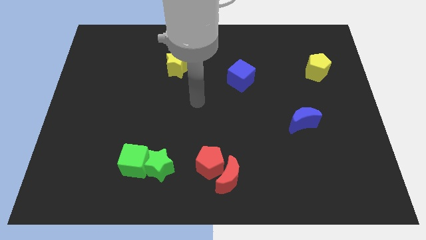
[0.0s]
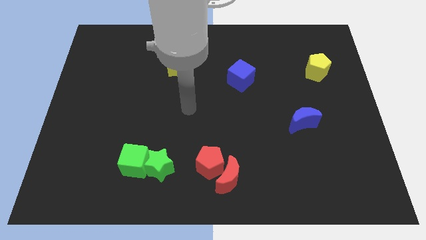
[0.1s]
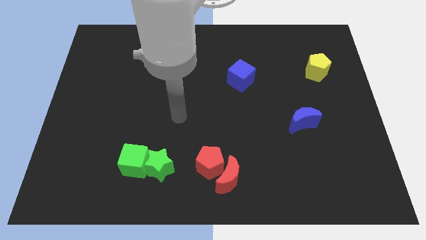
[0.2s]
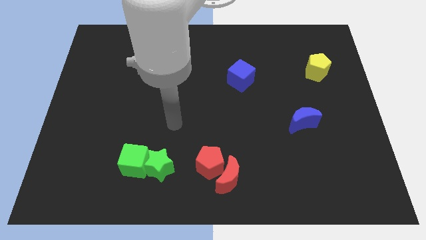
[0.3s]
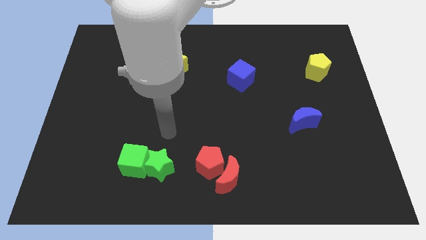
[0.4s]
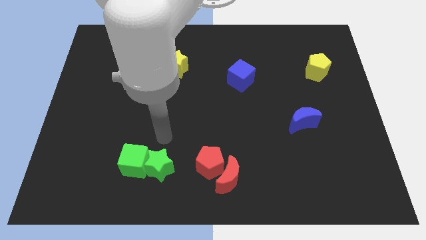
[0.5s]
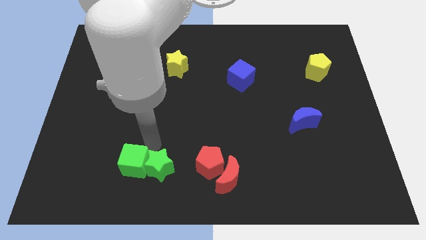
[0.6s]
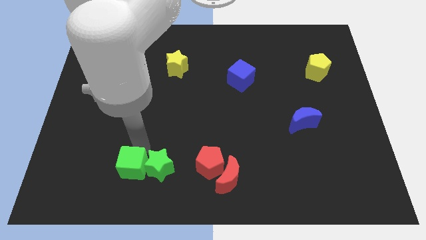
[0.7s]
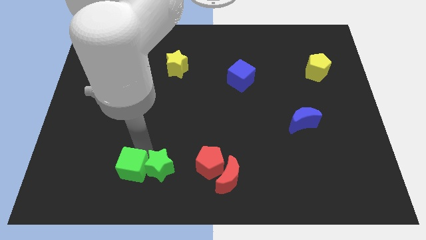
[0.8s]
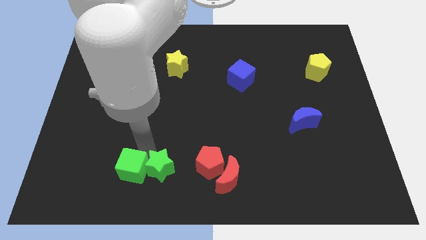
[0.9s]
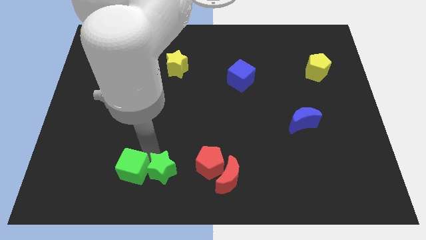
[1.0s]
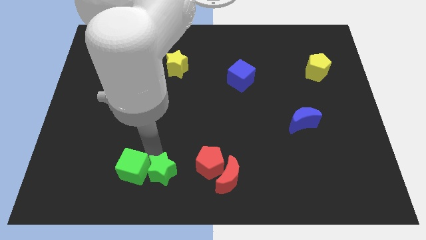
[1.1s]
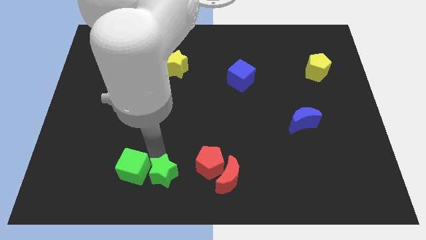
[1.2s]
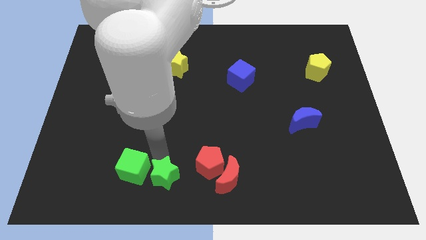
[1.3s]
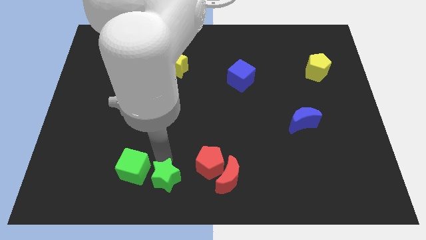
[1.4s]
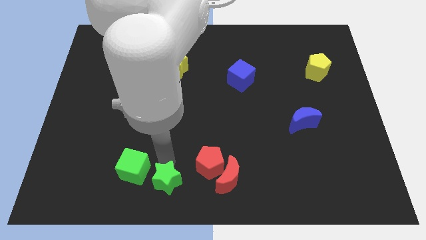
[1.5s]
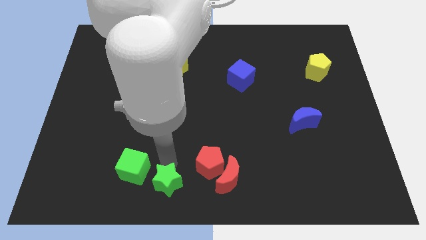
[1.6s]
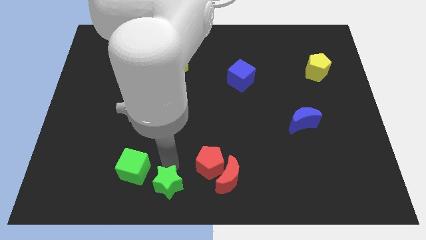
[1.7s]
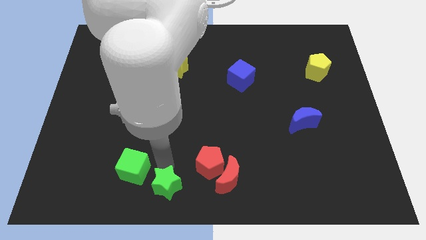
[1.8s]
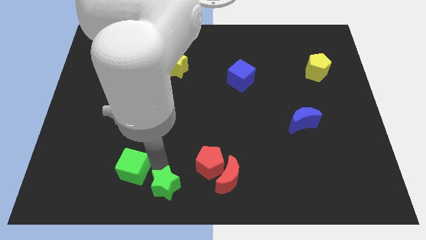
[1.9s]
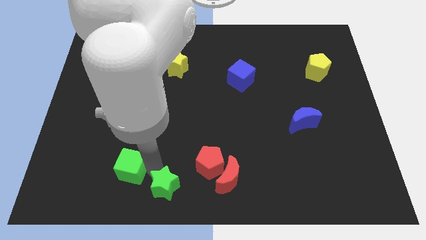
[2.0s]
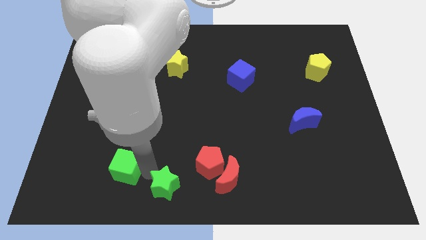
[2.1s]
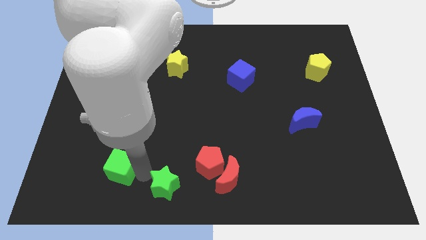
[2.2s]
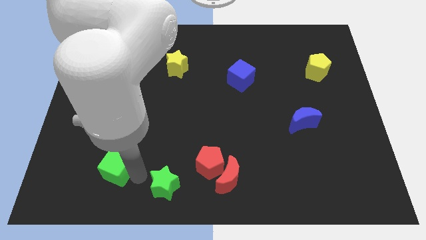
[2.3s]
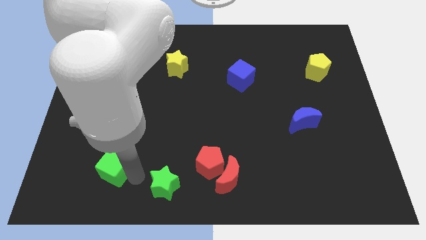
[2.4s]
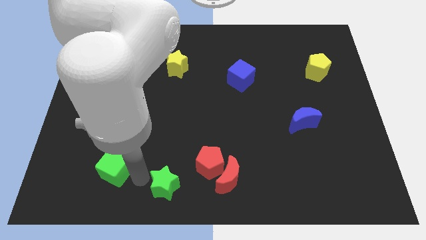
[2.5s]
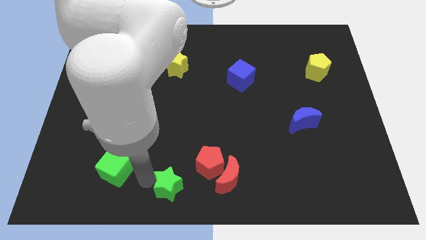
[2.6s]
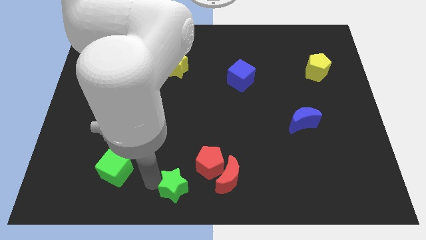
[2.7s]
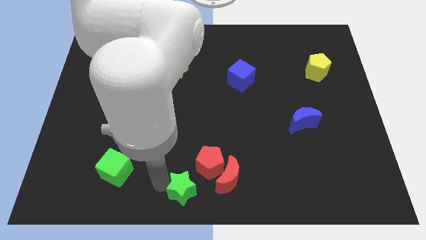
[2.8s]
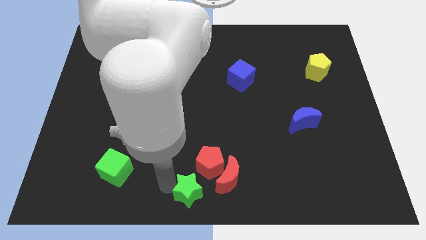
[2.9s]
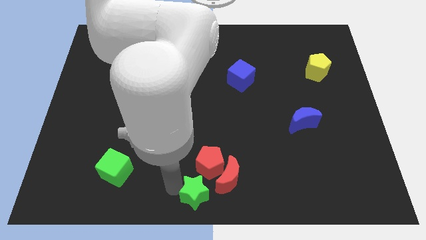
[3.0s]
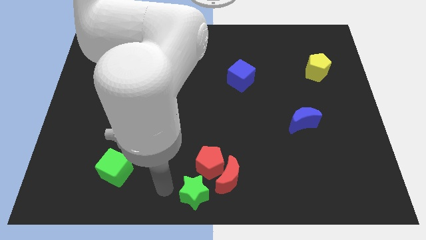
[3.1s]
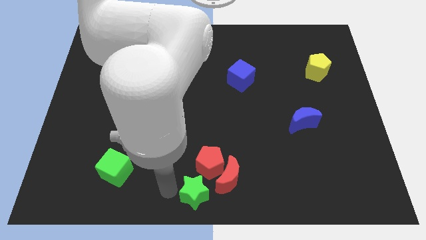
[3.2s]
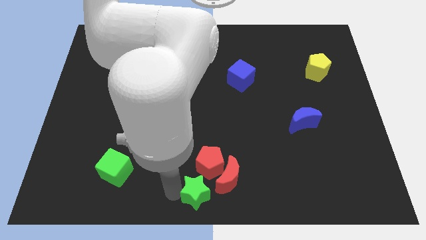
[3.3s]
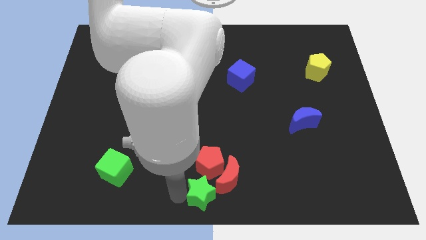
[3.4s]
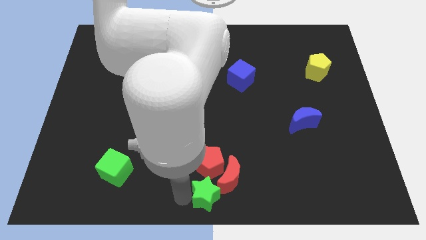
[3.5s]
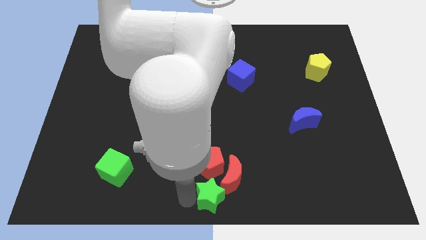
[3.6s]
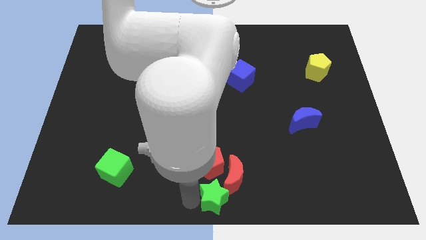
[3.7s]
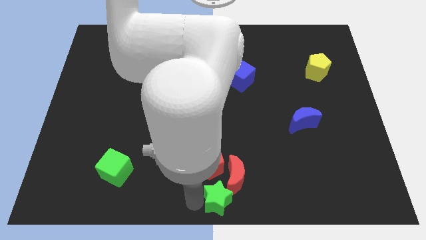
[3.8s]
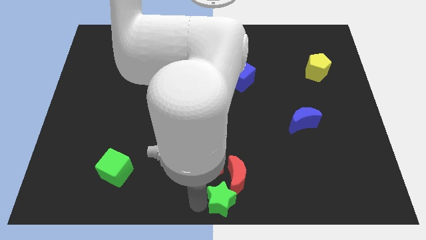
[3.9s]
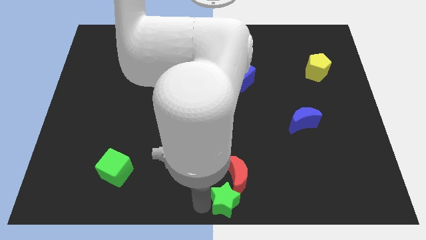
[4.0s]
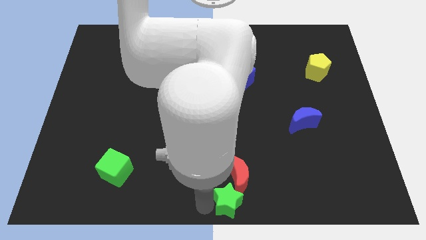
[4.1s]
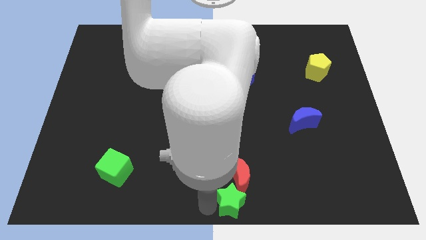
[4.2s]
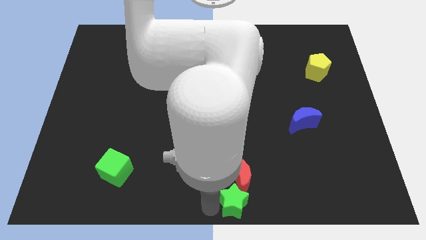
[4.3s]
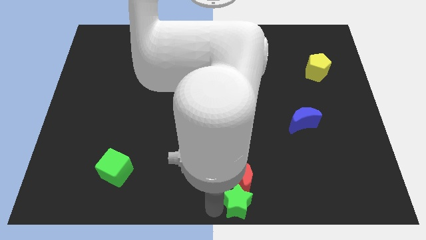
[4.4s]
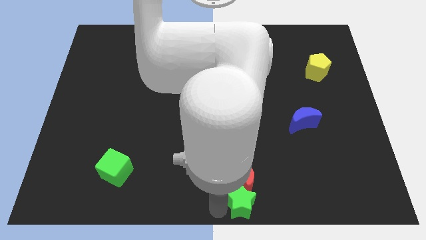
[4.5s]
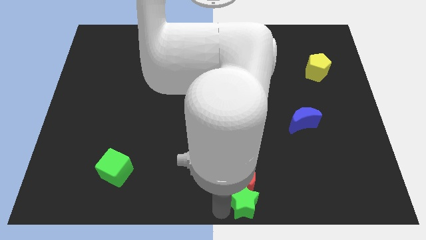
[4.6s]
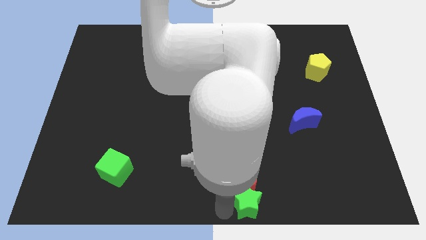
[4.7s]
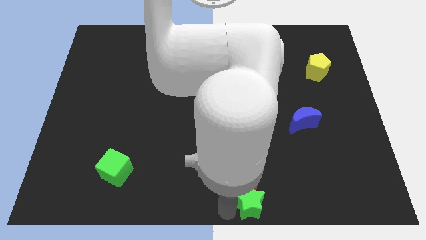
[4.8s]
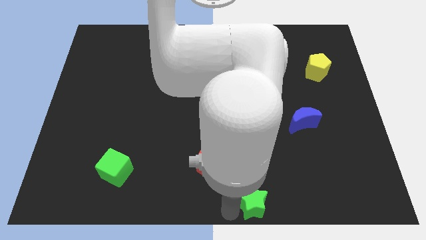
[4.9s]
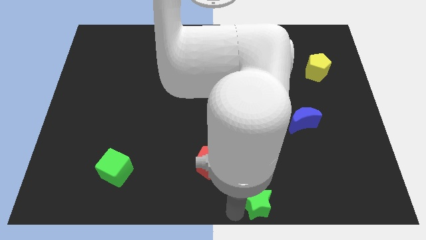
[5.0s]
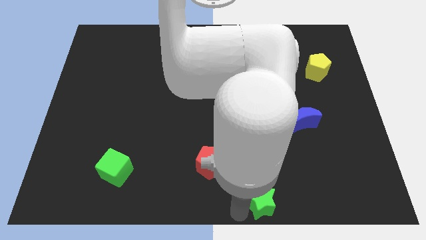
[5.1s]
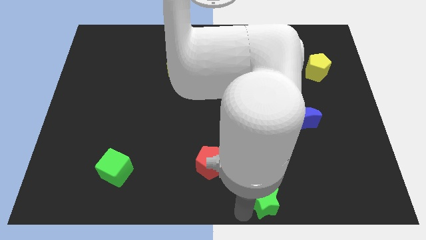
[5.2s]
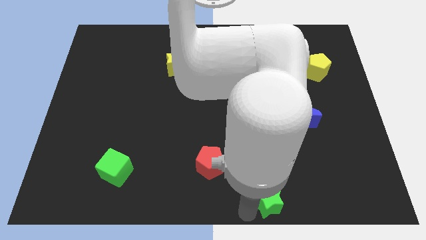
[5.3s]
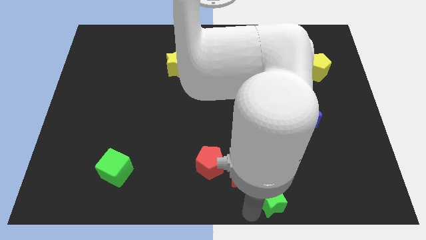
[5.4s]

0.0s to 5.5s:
slide the green star to the right

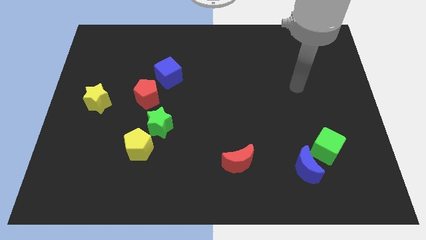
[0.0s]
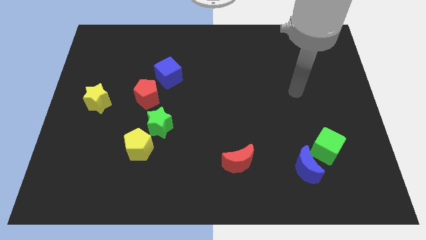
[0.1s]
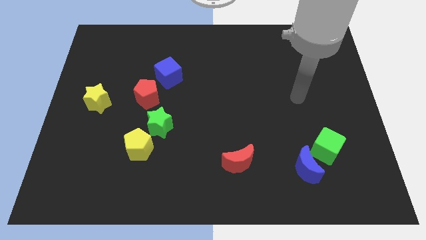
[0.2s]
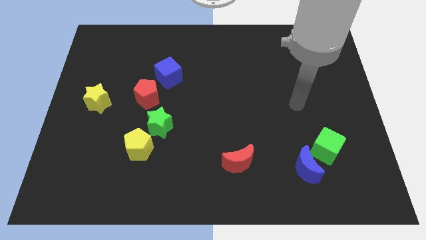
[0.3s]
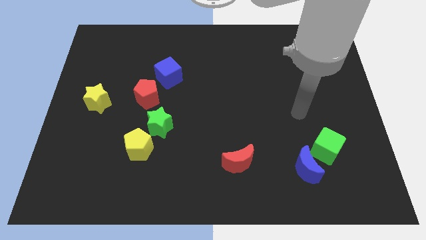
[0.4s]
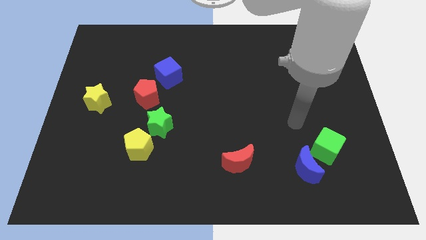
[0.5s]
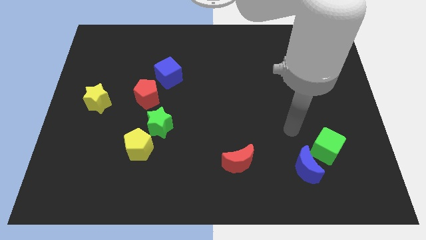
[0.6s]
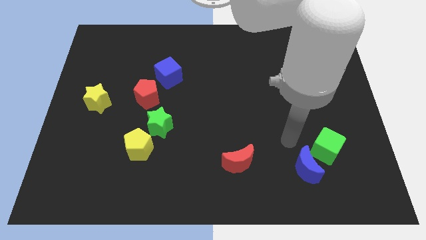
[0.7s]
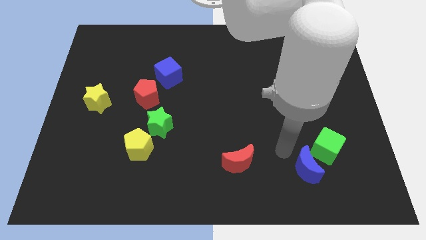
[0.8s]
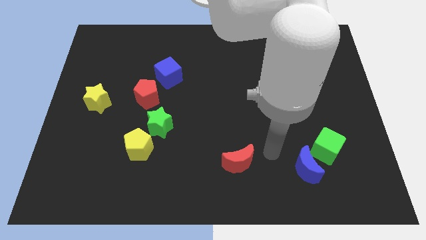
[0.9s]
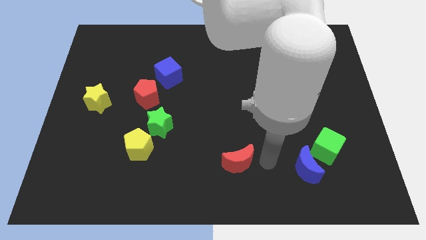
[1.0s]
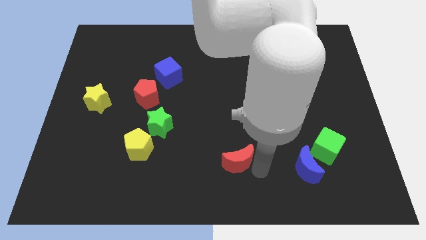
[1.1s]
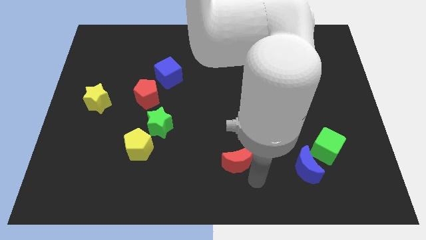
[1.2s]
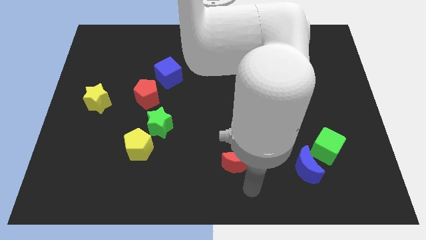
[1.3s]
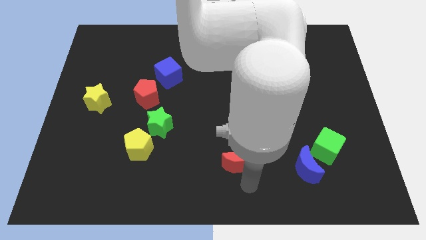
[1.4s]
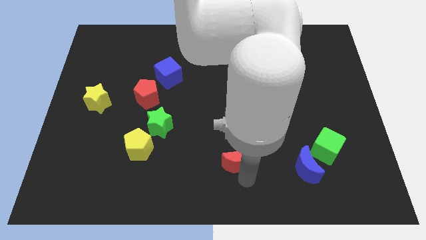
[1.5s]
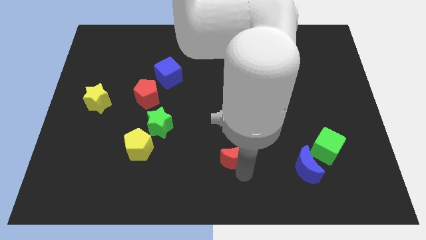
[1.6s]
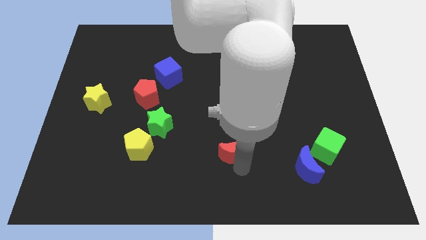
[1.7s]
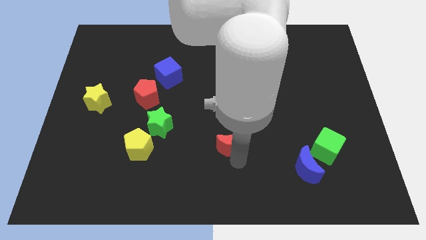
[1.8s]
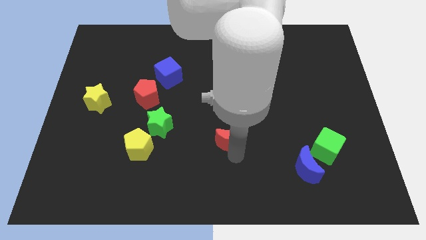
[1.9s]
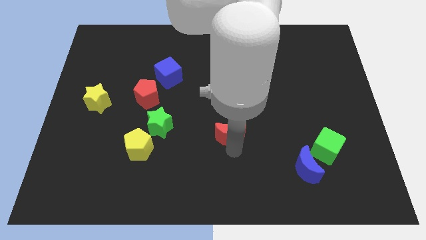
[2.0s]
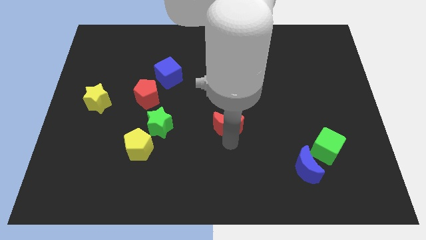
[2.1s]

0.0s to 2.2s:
push the red moon a bit up
